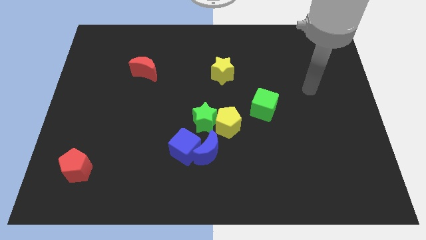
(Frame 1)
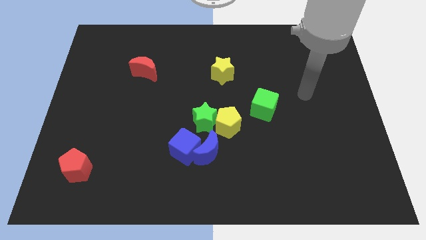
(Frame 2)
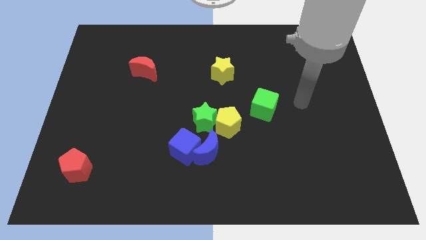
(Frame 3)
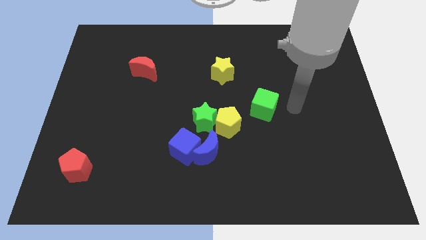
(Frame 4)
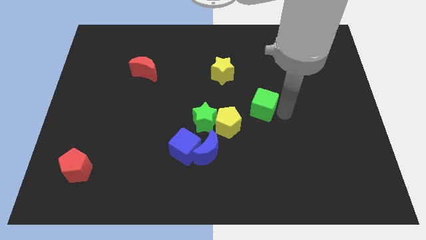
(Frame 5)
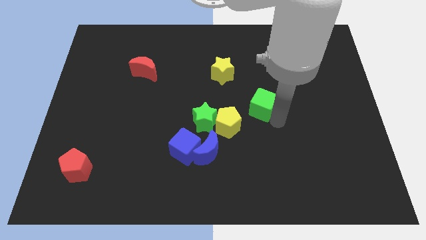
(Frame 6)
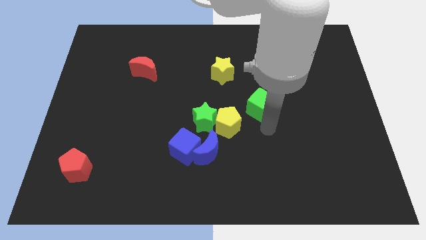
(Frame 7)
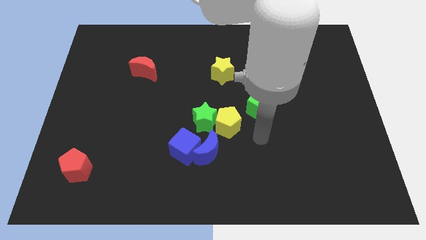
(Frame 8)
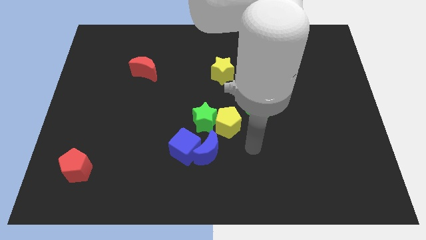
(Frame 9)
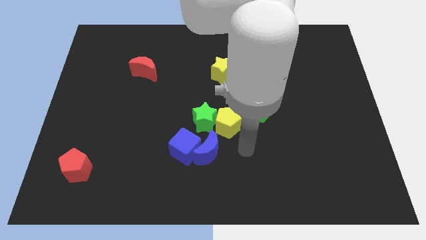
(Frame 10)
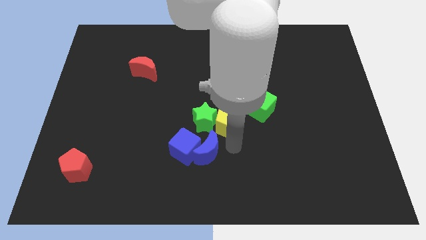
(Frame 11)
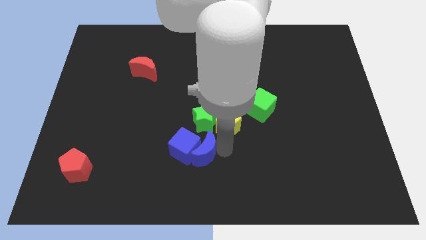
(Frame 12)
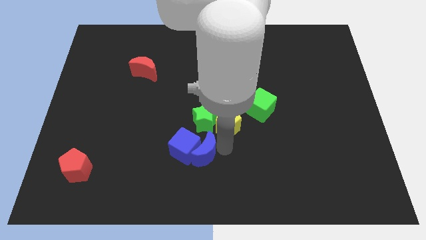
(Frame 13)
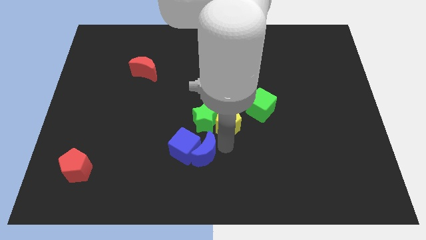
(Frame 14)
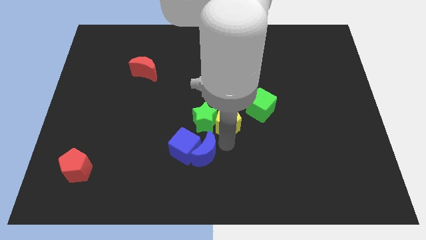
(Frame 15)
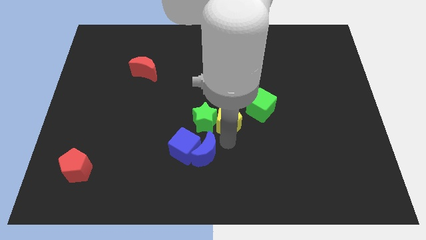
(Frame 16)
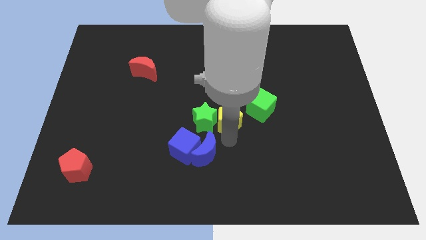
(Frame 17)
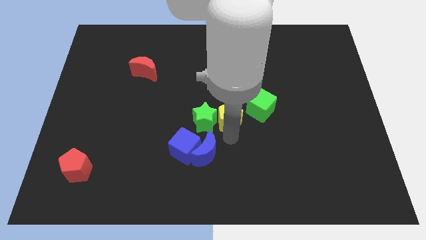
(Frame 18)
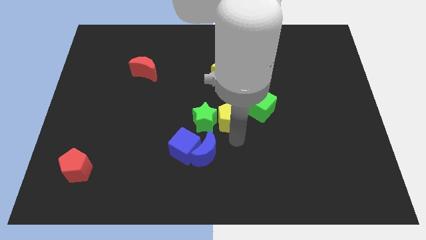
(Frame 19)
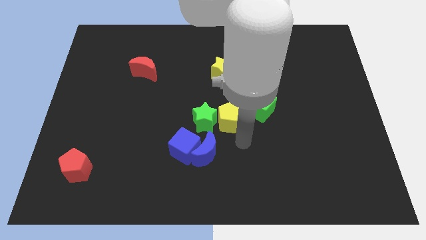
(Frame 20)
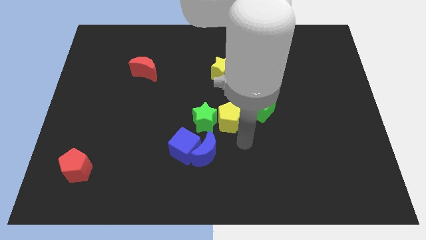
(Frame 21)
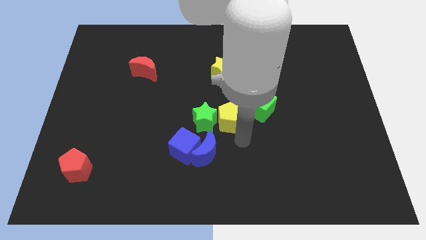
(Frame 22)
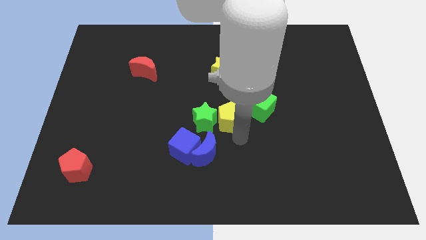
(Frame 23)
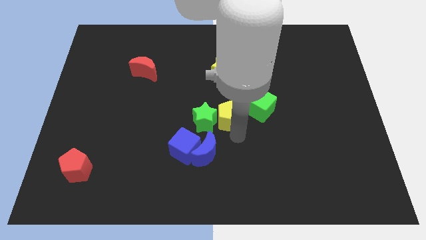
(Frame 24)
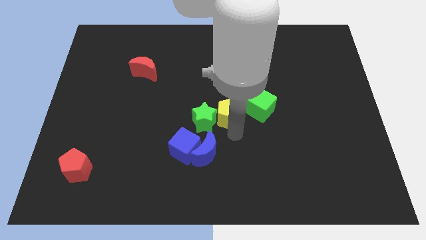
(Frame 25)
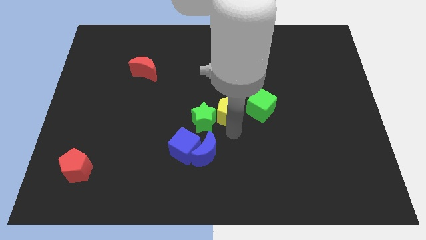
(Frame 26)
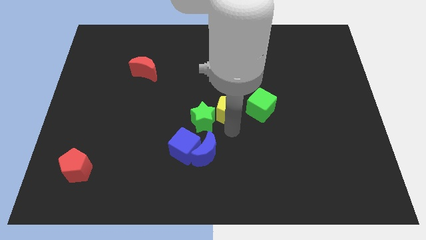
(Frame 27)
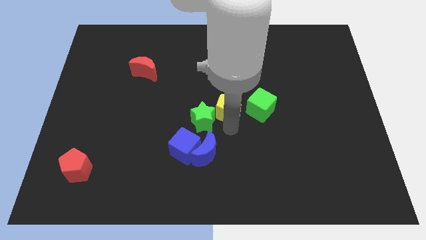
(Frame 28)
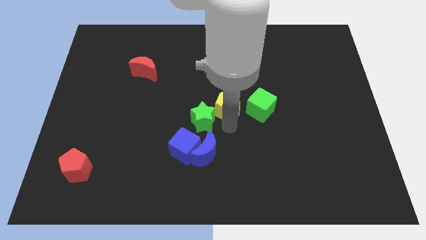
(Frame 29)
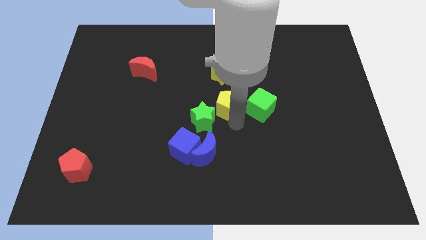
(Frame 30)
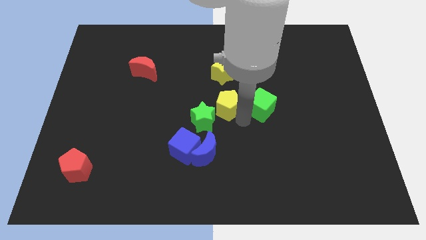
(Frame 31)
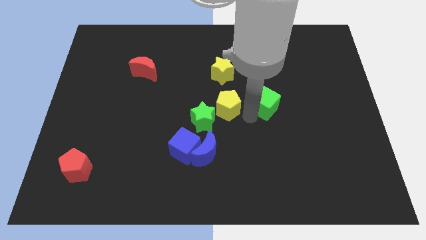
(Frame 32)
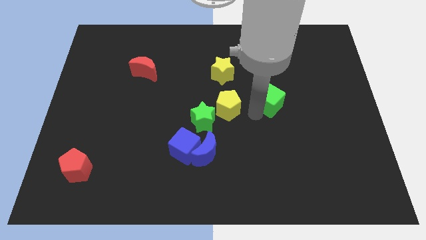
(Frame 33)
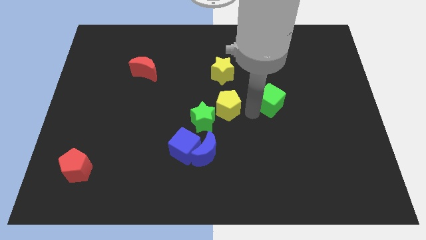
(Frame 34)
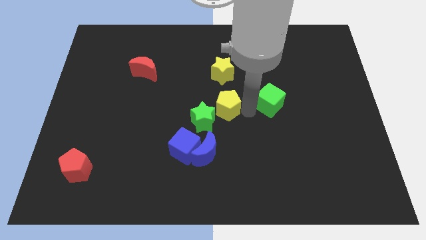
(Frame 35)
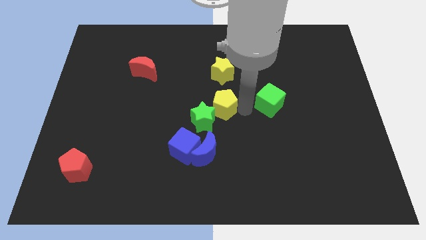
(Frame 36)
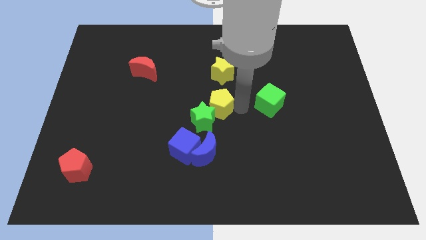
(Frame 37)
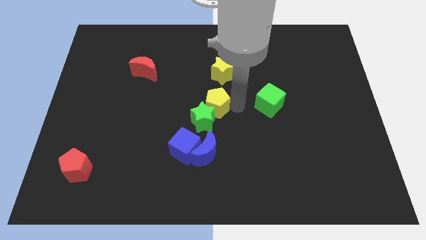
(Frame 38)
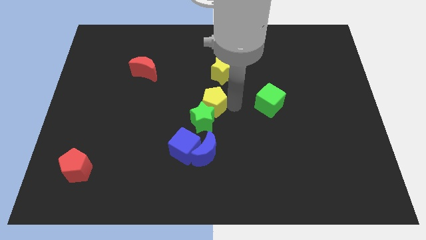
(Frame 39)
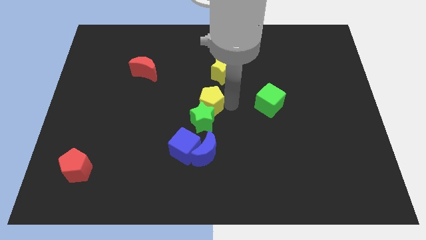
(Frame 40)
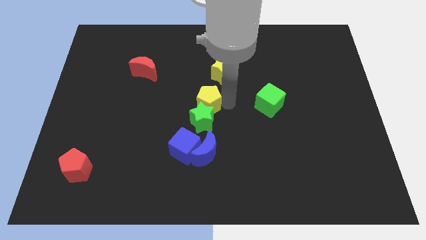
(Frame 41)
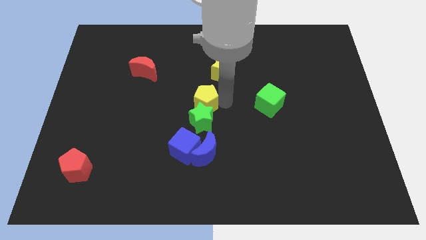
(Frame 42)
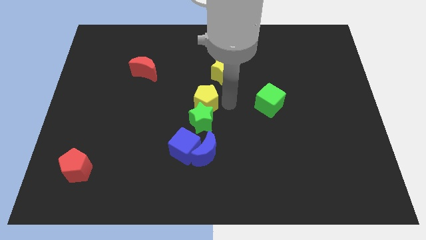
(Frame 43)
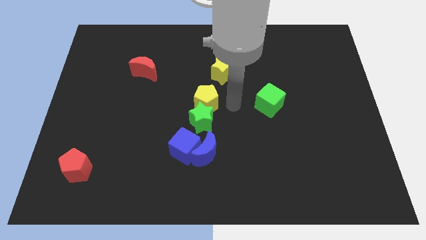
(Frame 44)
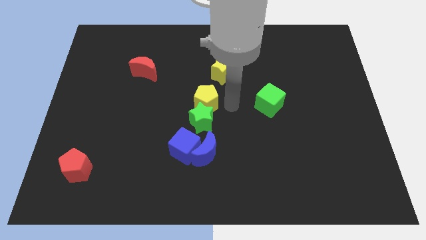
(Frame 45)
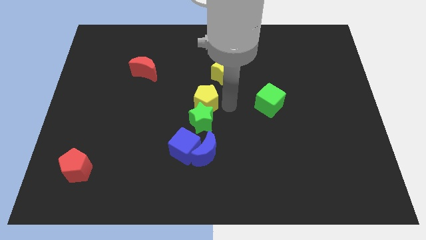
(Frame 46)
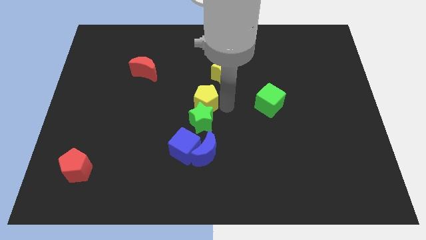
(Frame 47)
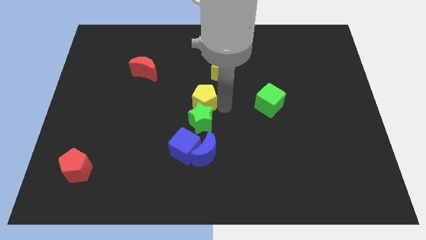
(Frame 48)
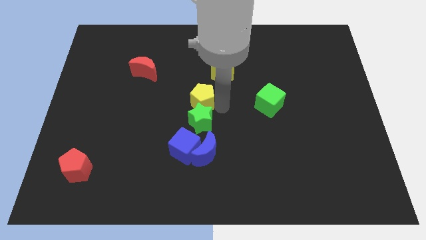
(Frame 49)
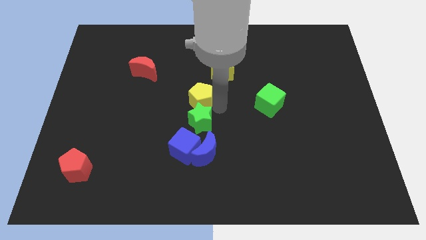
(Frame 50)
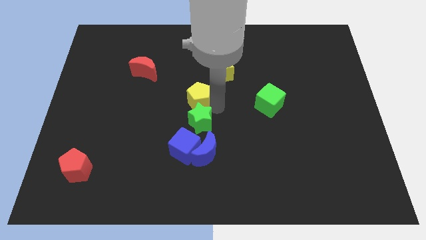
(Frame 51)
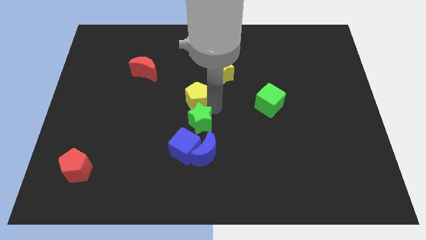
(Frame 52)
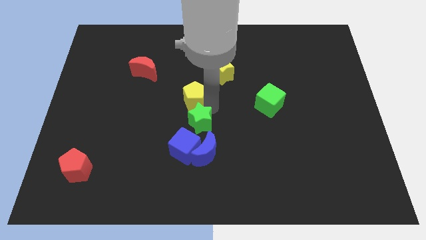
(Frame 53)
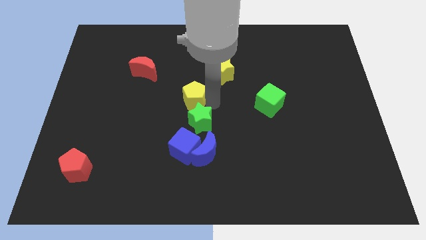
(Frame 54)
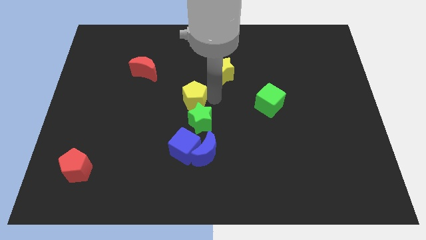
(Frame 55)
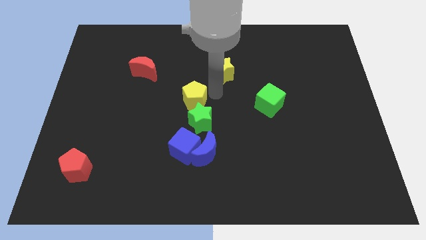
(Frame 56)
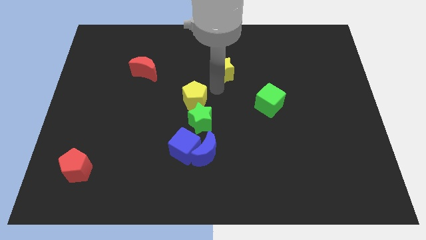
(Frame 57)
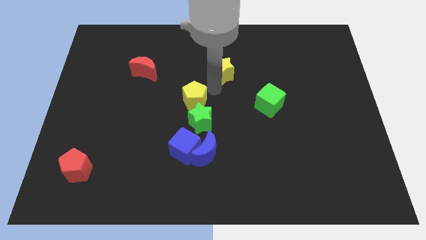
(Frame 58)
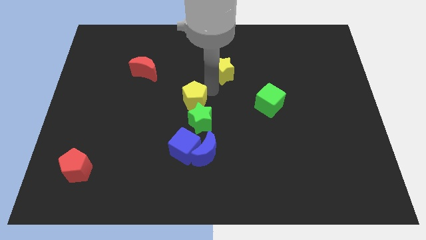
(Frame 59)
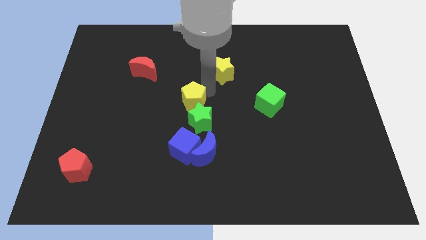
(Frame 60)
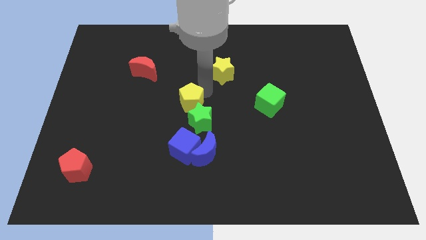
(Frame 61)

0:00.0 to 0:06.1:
push the yellow pentagon left a little bit

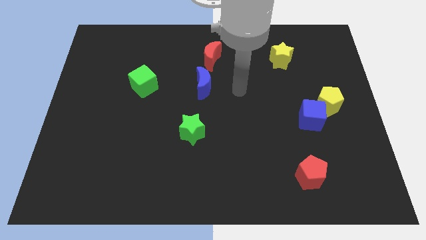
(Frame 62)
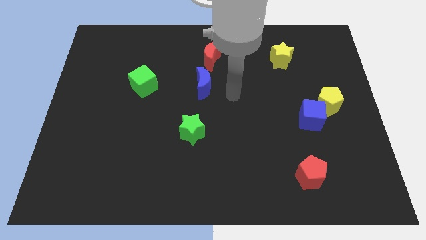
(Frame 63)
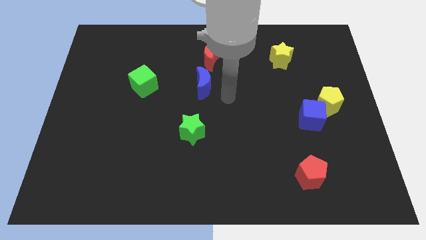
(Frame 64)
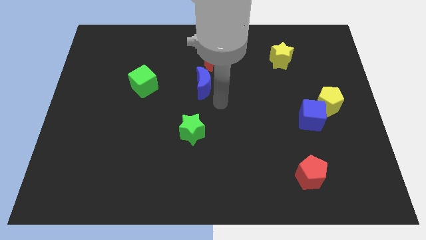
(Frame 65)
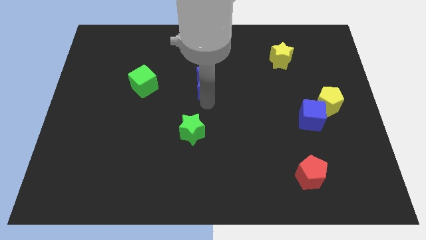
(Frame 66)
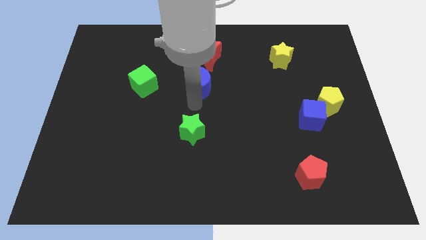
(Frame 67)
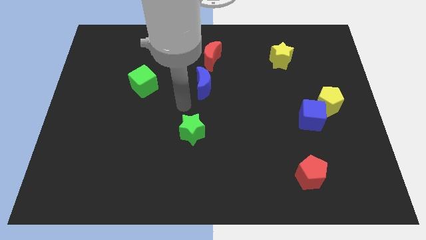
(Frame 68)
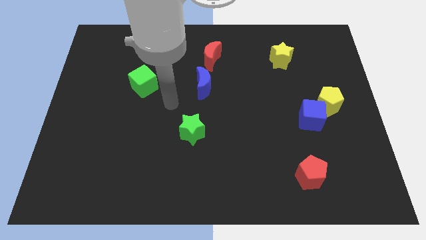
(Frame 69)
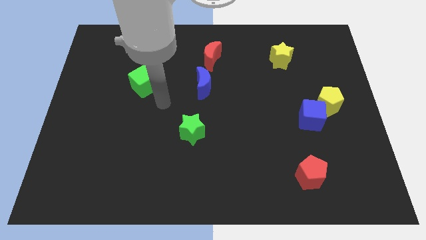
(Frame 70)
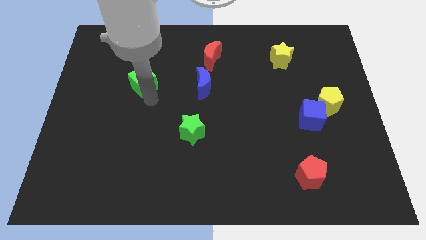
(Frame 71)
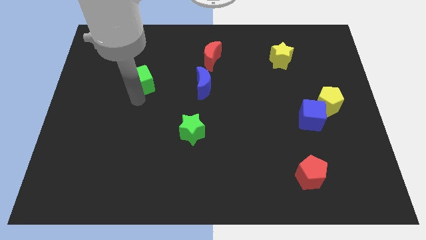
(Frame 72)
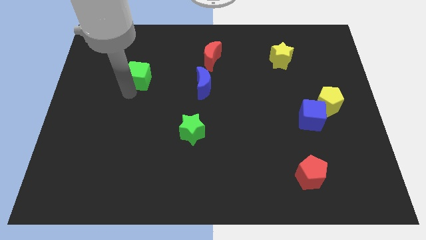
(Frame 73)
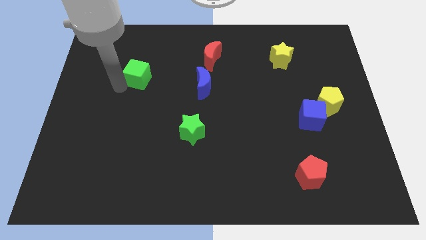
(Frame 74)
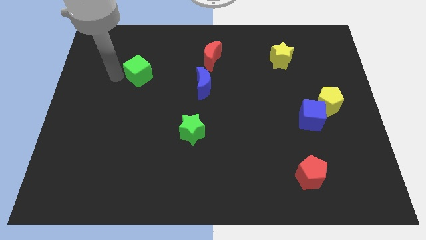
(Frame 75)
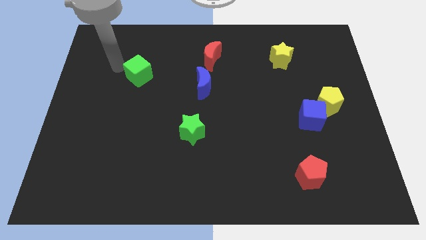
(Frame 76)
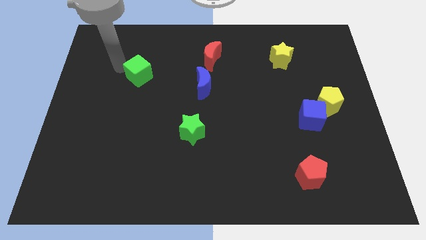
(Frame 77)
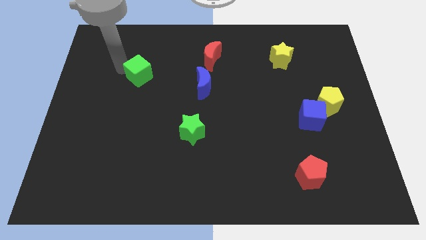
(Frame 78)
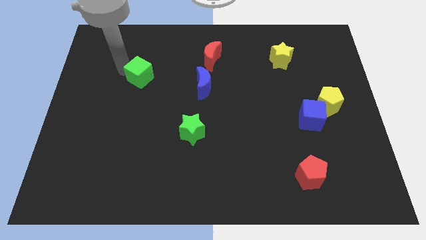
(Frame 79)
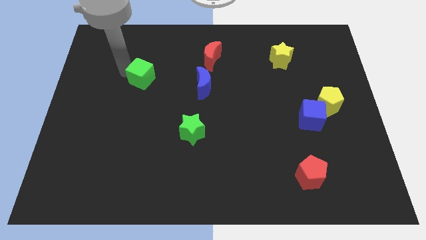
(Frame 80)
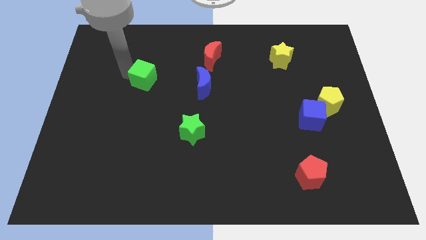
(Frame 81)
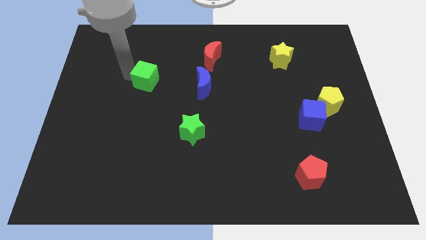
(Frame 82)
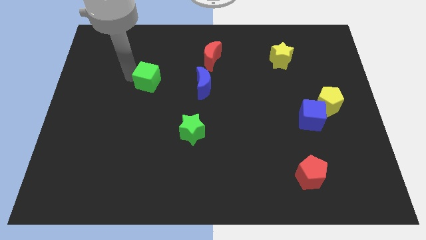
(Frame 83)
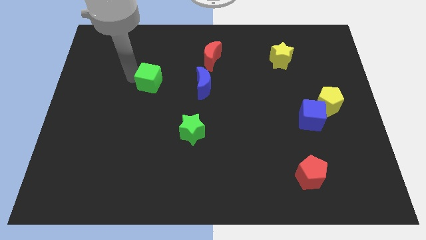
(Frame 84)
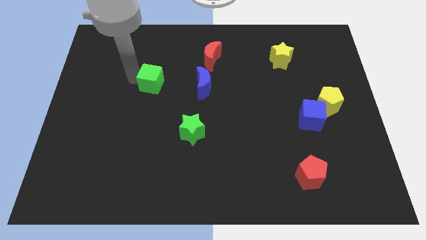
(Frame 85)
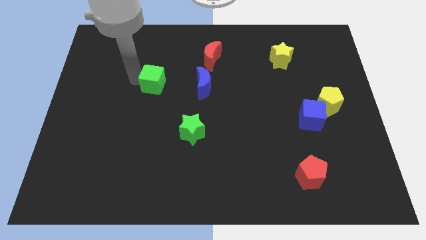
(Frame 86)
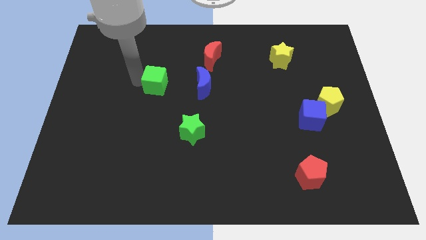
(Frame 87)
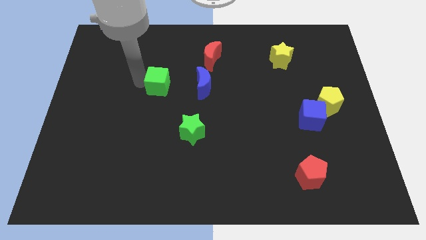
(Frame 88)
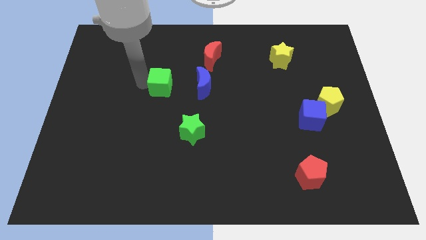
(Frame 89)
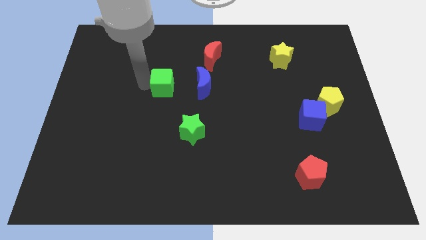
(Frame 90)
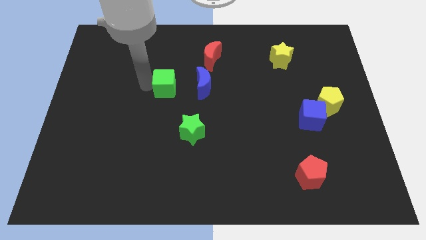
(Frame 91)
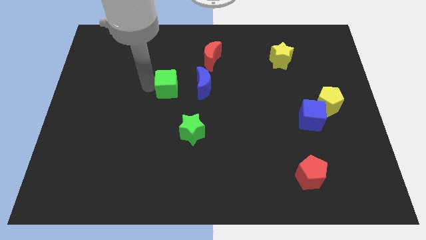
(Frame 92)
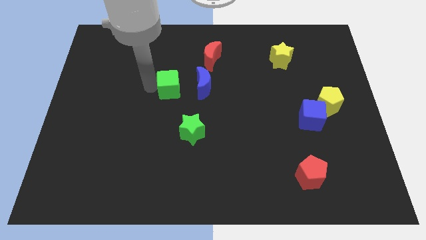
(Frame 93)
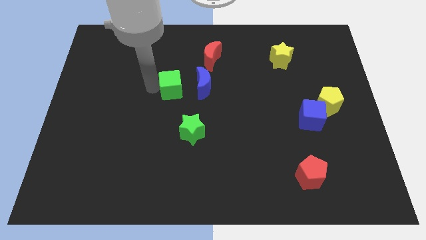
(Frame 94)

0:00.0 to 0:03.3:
slightly push the green cube to the right
